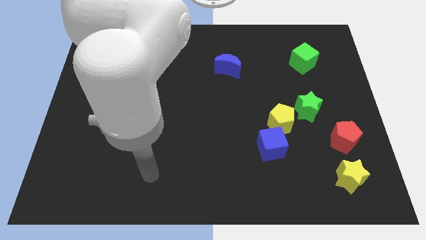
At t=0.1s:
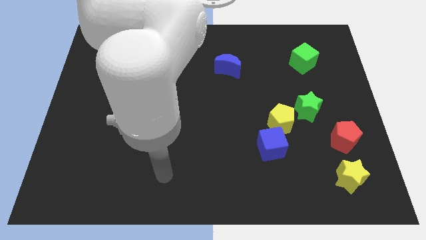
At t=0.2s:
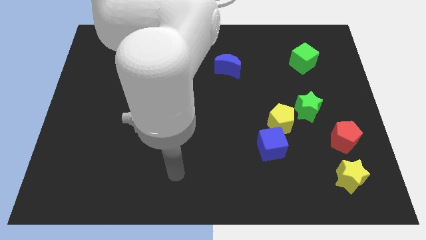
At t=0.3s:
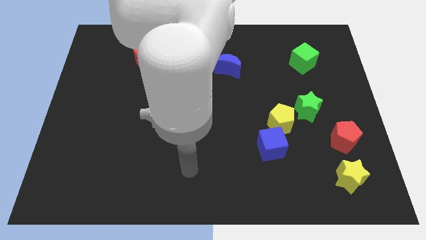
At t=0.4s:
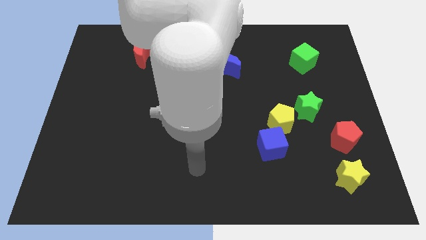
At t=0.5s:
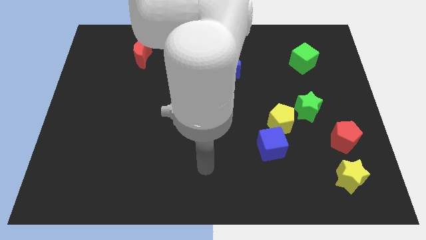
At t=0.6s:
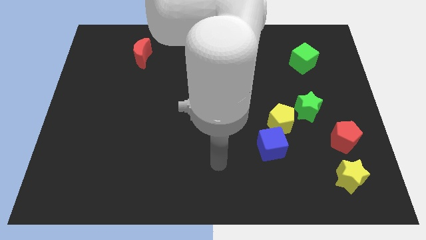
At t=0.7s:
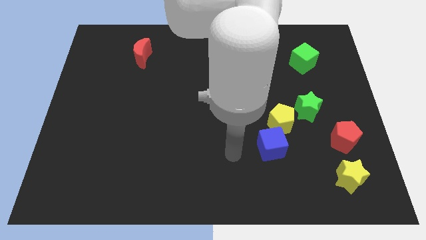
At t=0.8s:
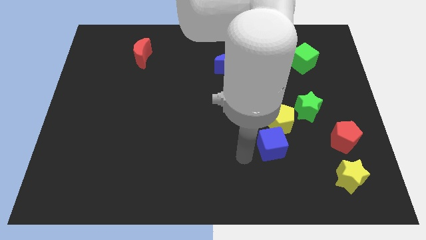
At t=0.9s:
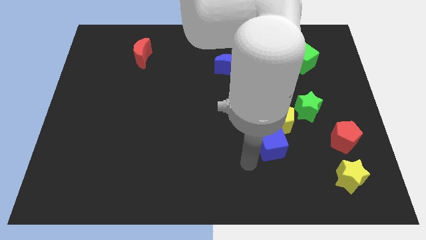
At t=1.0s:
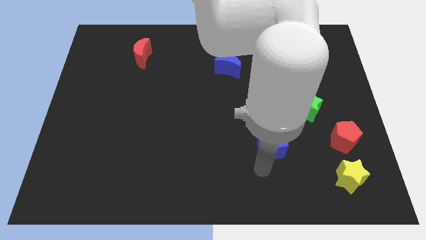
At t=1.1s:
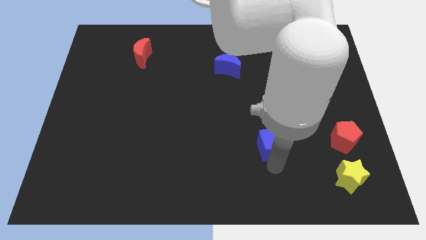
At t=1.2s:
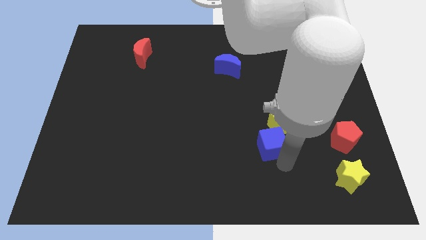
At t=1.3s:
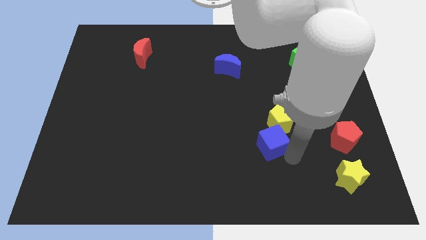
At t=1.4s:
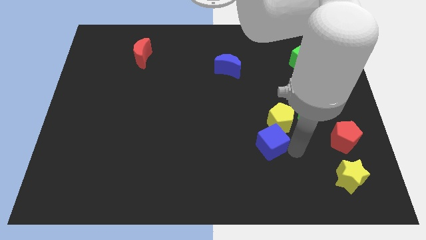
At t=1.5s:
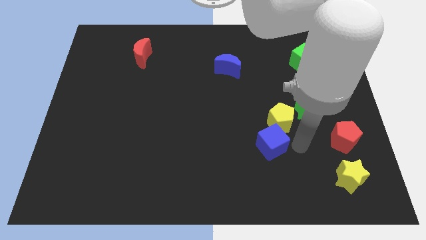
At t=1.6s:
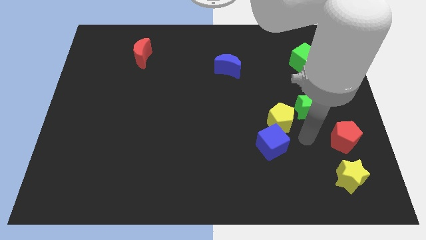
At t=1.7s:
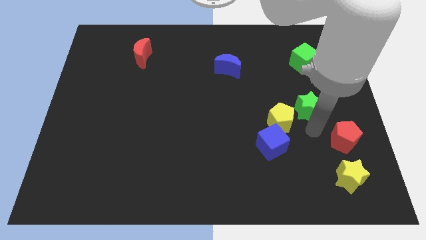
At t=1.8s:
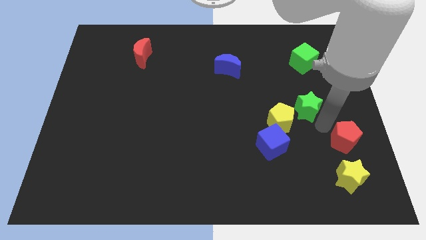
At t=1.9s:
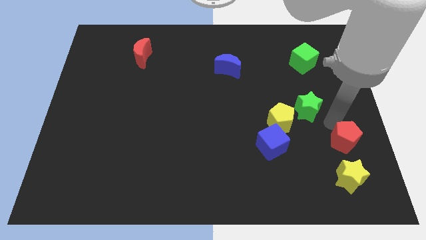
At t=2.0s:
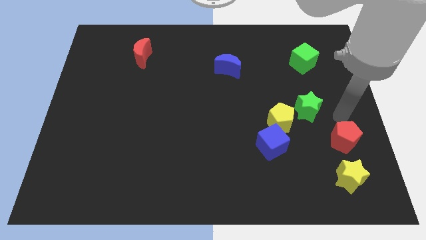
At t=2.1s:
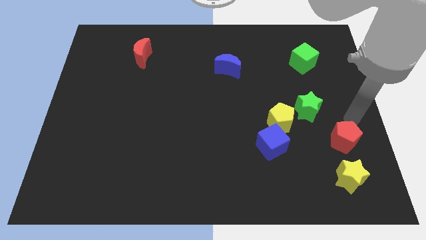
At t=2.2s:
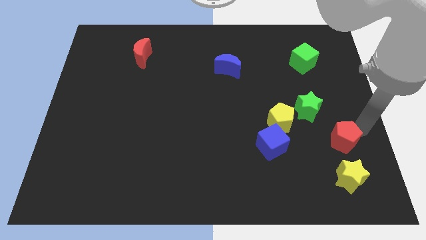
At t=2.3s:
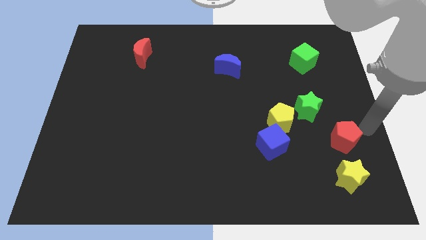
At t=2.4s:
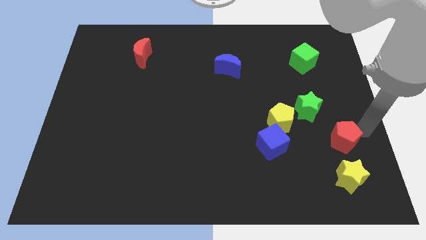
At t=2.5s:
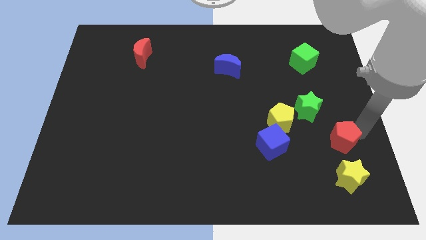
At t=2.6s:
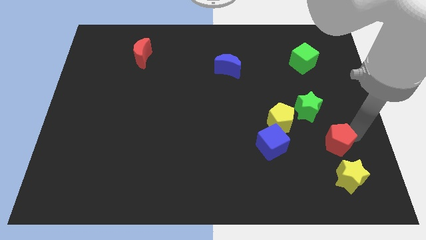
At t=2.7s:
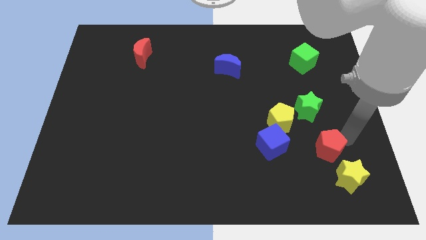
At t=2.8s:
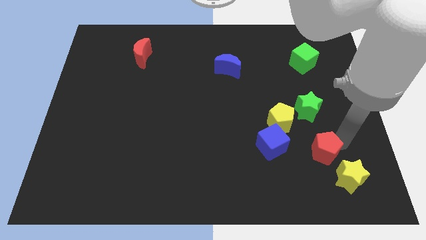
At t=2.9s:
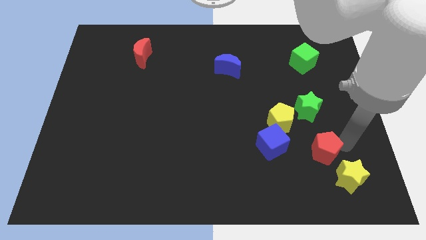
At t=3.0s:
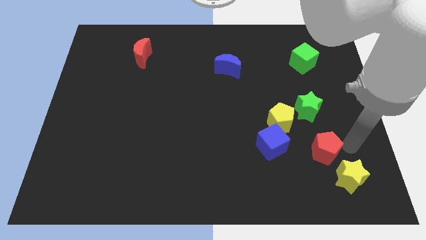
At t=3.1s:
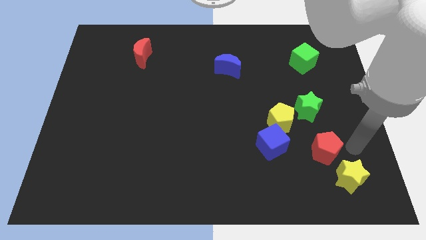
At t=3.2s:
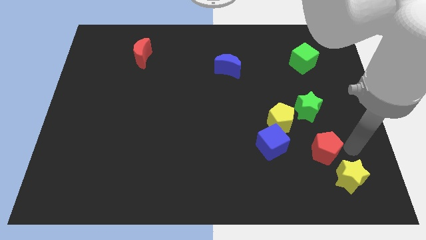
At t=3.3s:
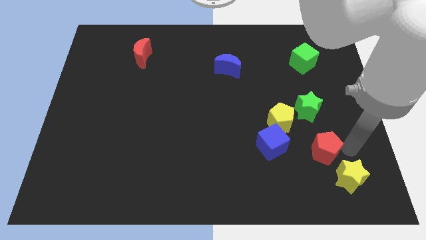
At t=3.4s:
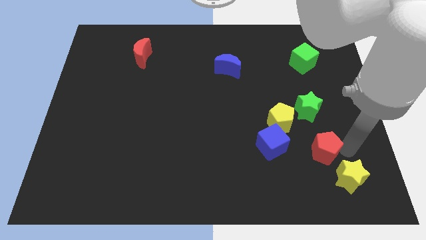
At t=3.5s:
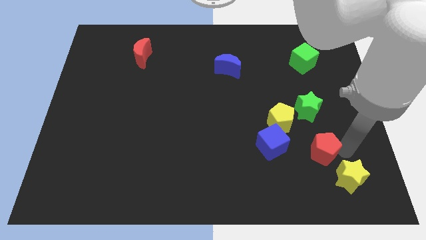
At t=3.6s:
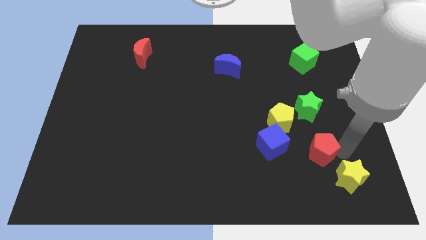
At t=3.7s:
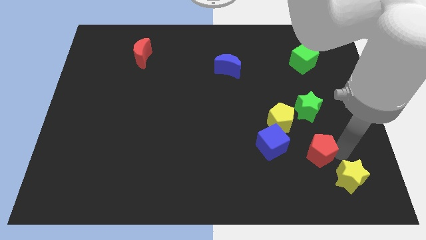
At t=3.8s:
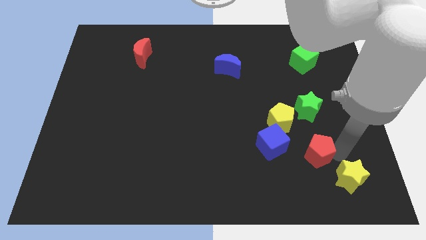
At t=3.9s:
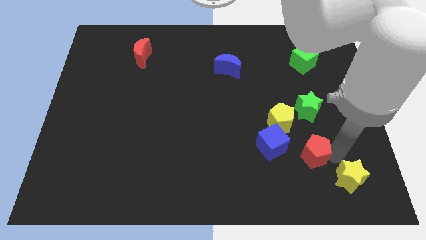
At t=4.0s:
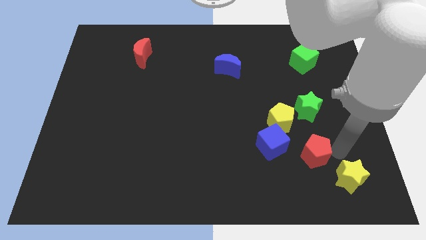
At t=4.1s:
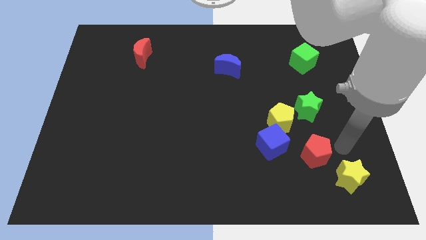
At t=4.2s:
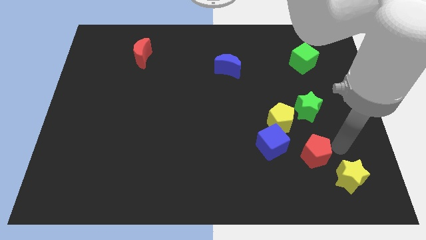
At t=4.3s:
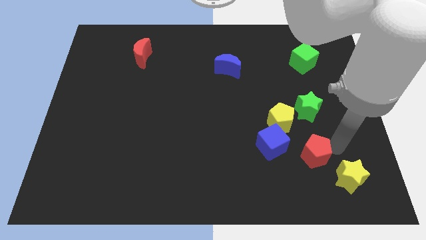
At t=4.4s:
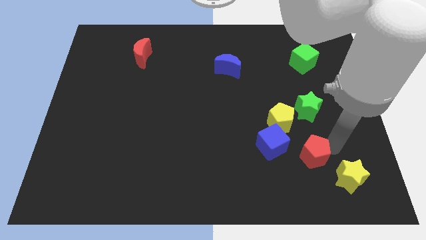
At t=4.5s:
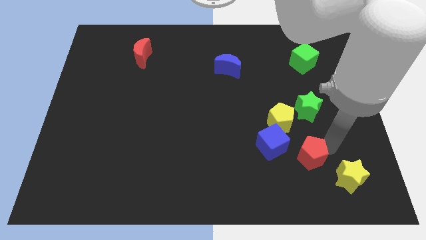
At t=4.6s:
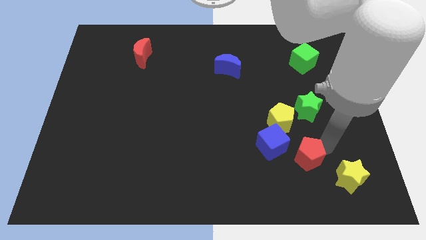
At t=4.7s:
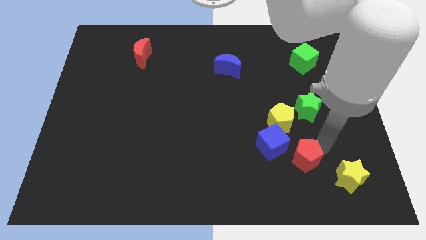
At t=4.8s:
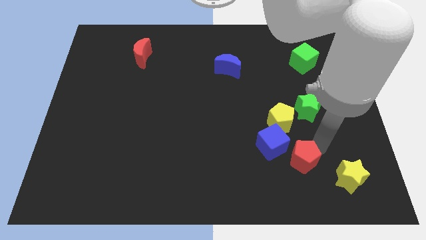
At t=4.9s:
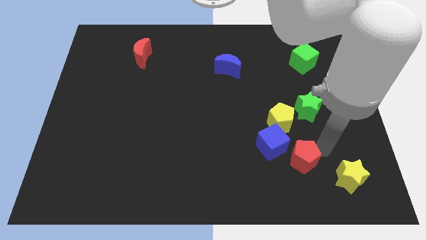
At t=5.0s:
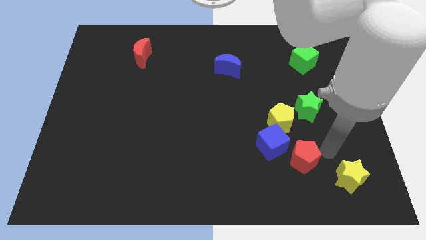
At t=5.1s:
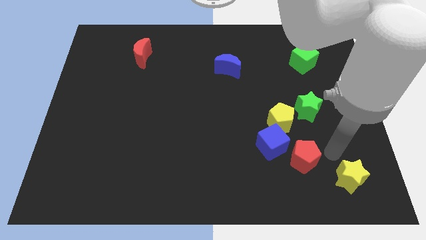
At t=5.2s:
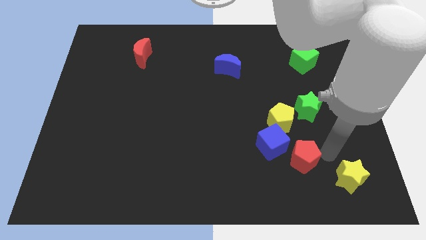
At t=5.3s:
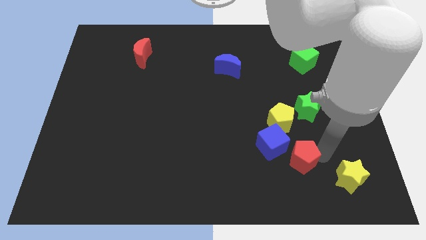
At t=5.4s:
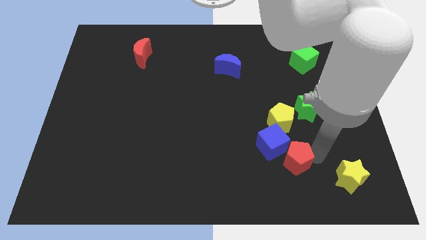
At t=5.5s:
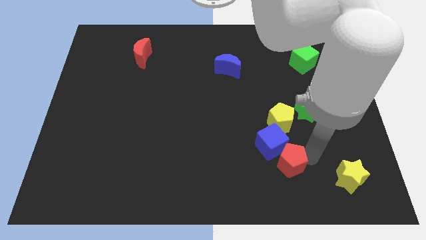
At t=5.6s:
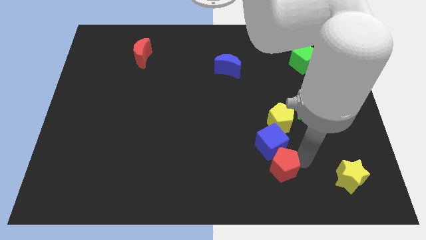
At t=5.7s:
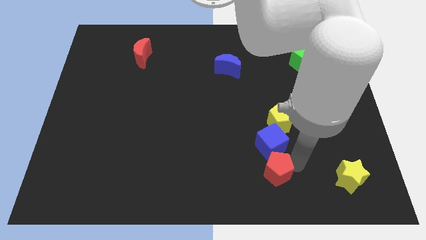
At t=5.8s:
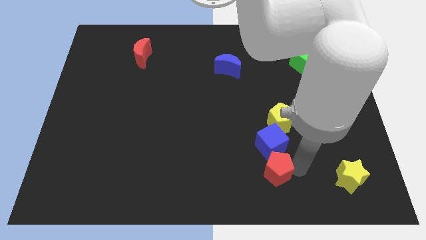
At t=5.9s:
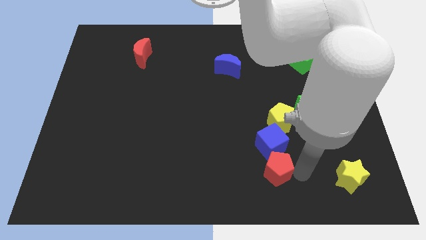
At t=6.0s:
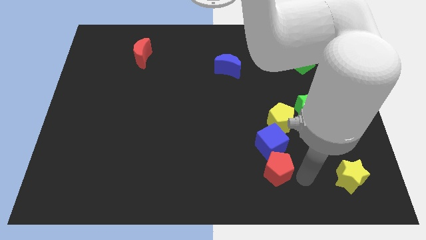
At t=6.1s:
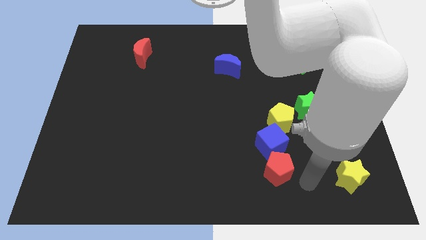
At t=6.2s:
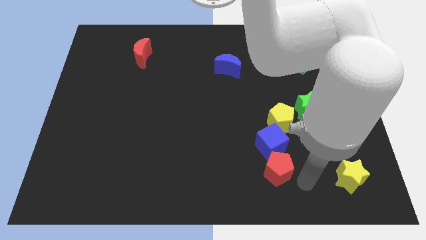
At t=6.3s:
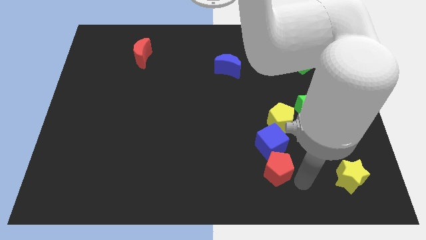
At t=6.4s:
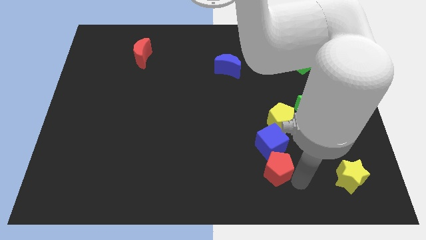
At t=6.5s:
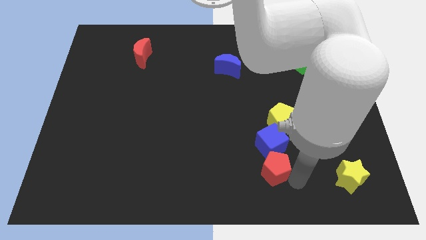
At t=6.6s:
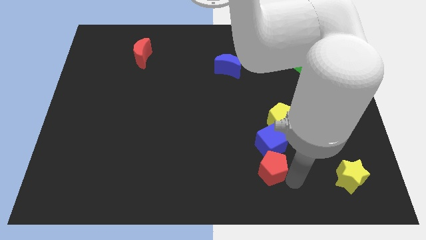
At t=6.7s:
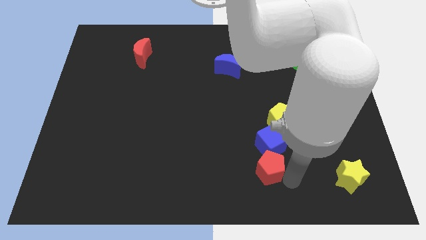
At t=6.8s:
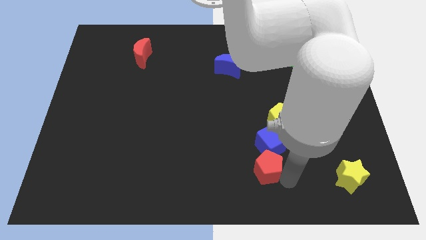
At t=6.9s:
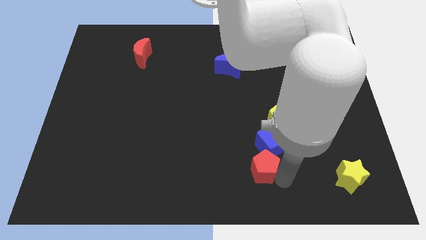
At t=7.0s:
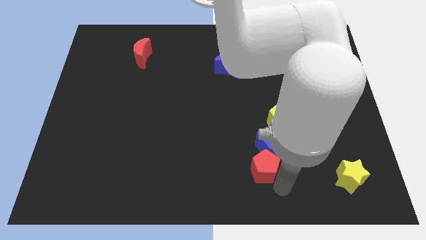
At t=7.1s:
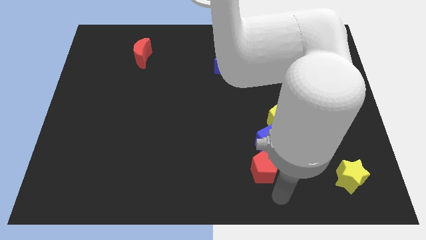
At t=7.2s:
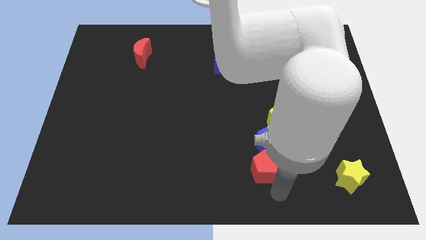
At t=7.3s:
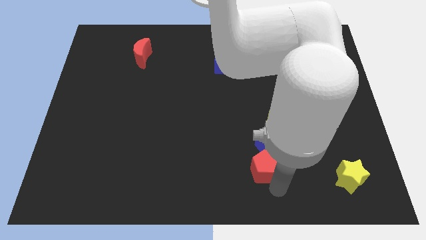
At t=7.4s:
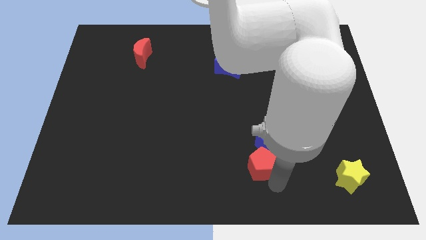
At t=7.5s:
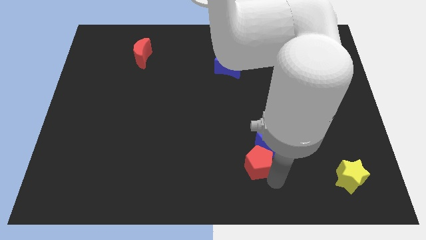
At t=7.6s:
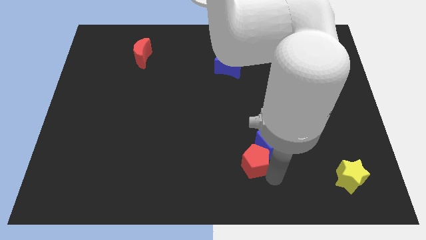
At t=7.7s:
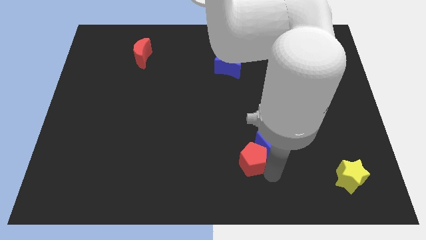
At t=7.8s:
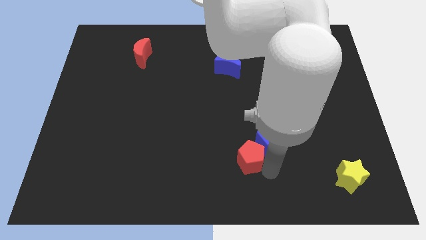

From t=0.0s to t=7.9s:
push the red pentagon left

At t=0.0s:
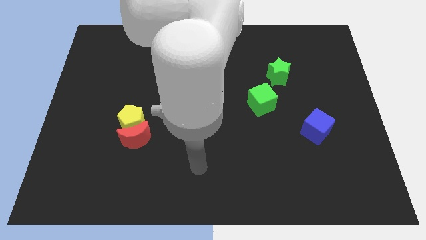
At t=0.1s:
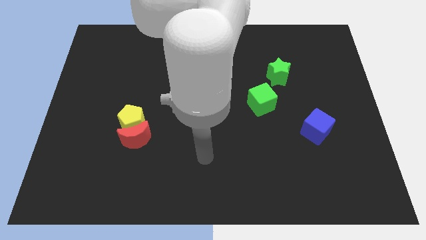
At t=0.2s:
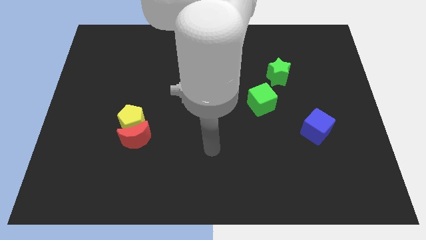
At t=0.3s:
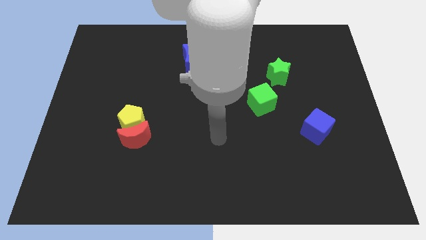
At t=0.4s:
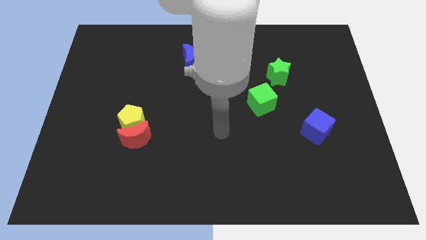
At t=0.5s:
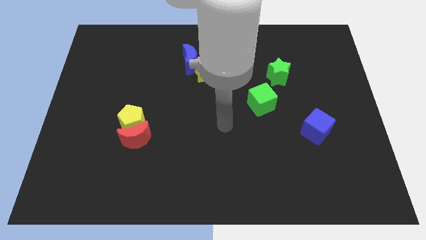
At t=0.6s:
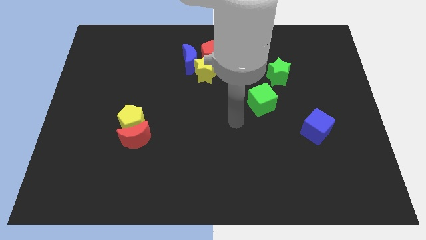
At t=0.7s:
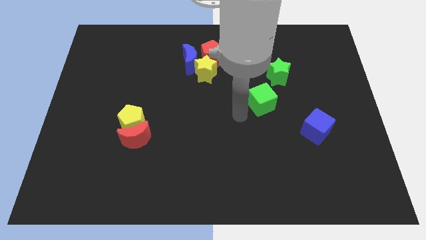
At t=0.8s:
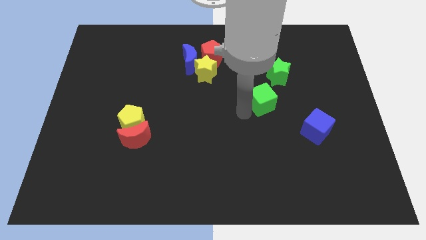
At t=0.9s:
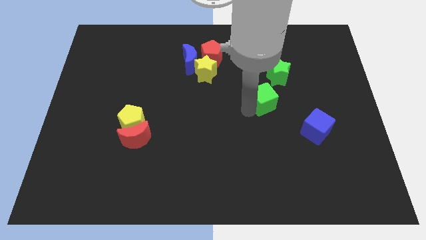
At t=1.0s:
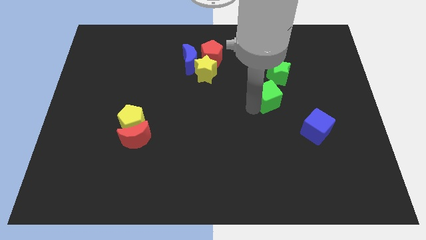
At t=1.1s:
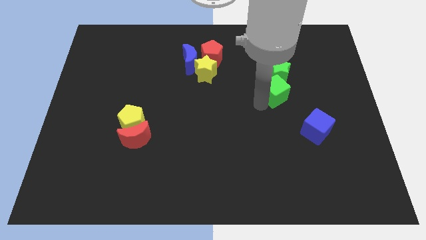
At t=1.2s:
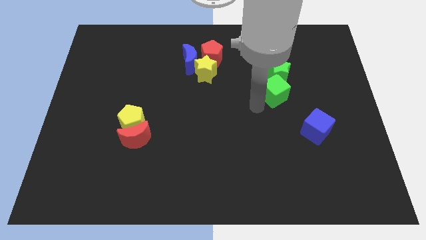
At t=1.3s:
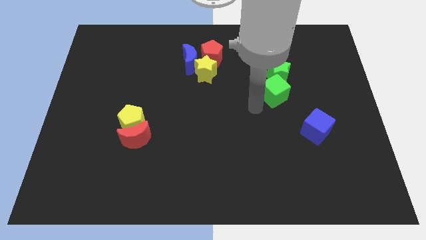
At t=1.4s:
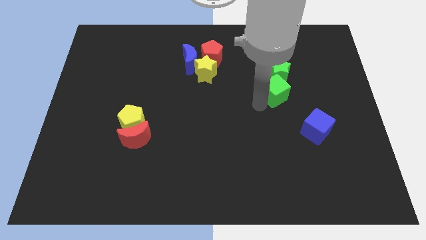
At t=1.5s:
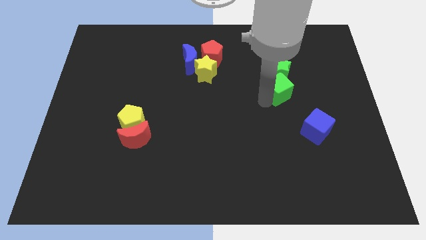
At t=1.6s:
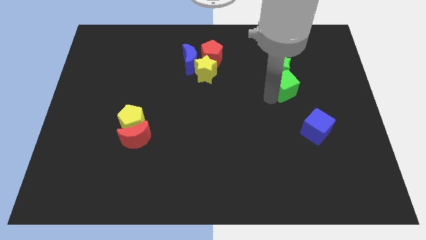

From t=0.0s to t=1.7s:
slightly slide the green cube diagonally up and right
